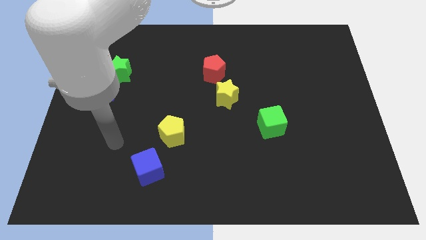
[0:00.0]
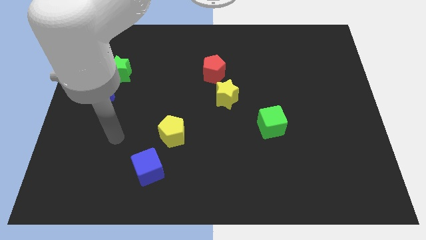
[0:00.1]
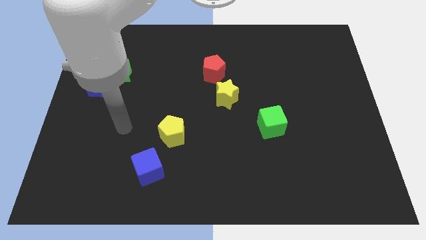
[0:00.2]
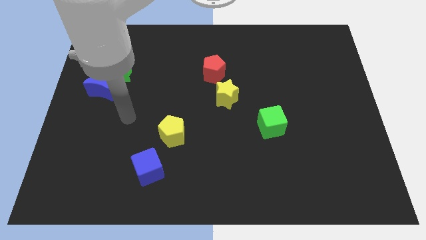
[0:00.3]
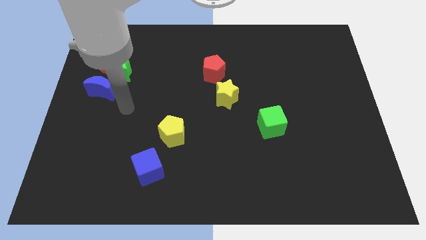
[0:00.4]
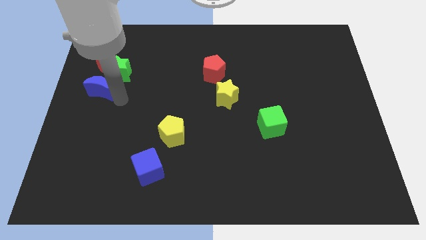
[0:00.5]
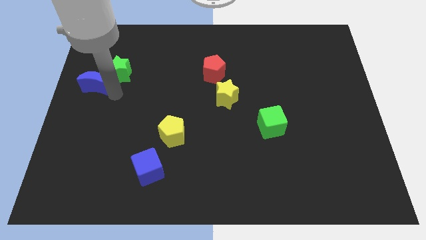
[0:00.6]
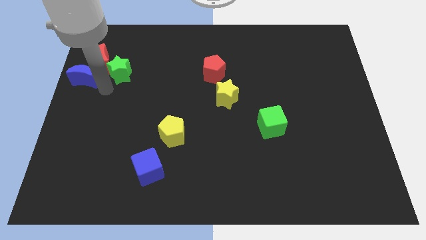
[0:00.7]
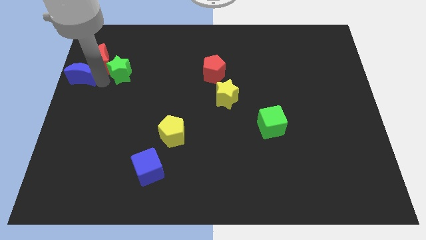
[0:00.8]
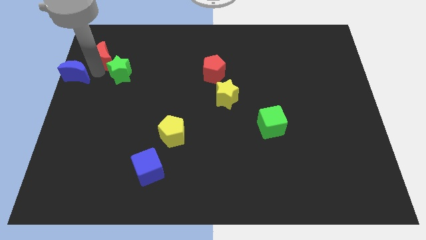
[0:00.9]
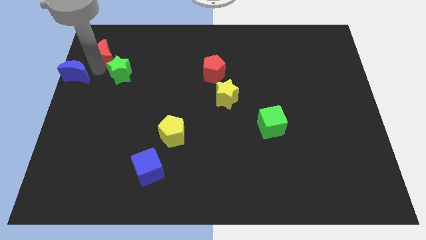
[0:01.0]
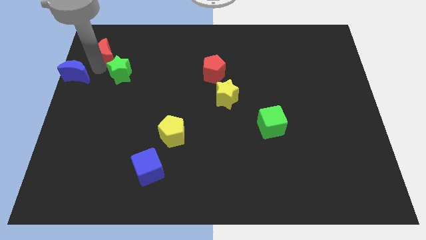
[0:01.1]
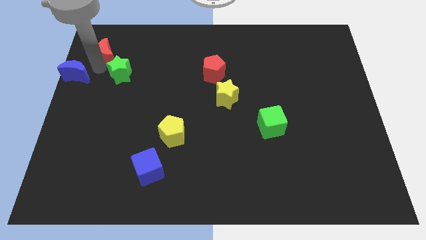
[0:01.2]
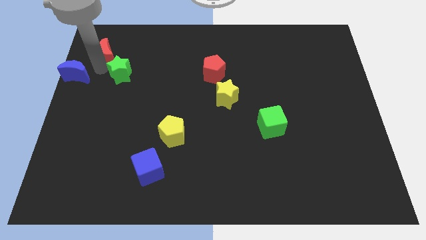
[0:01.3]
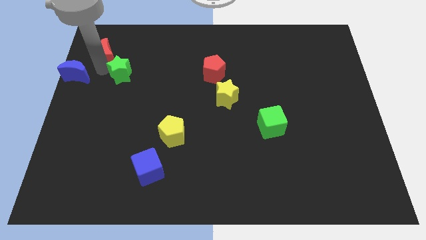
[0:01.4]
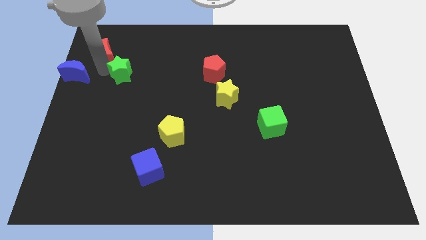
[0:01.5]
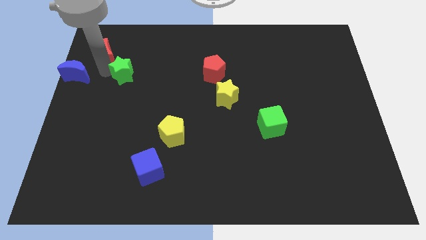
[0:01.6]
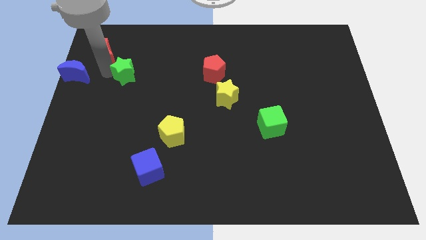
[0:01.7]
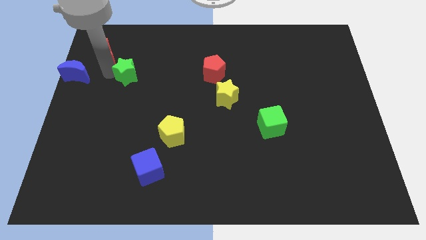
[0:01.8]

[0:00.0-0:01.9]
pull the green star apart from the red moon and blue moon

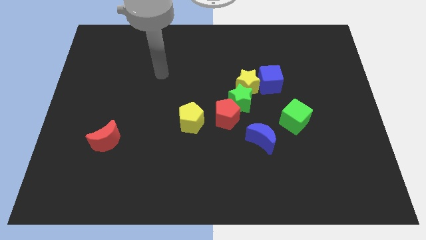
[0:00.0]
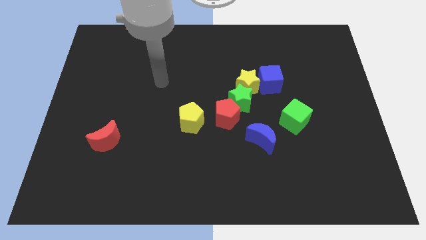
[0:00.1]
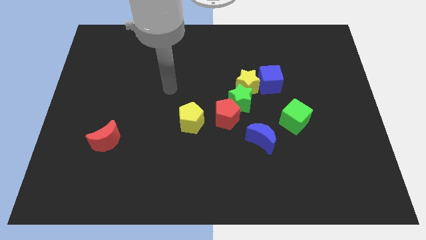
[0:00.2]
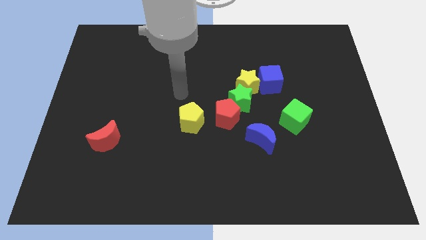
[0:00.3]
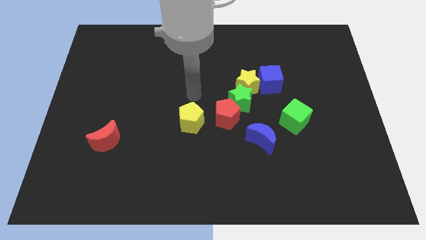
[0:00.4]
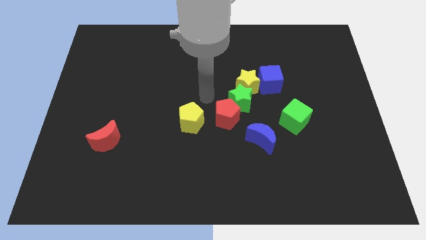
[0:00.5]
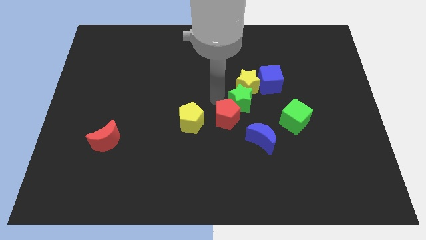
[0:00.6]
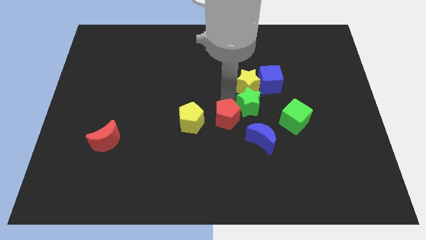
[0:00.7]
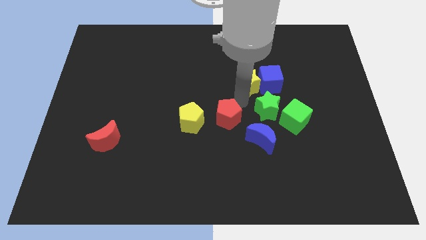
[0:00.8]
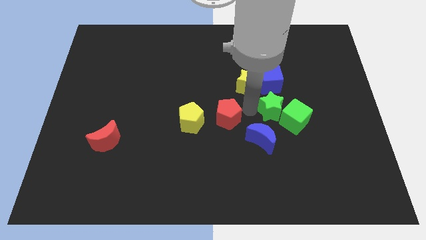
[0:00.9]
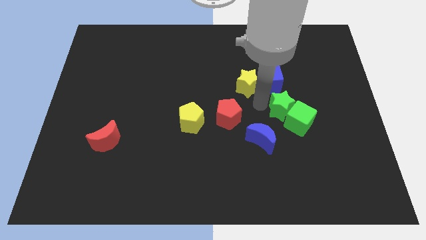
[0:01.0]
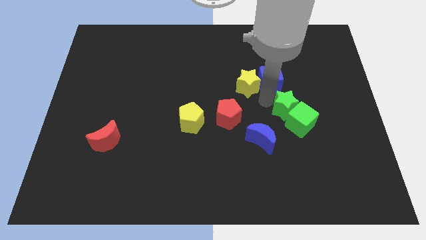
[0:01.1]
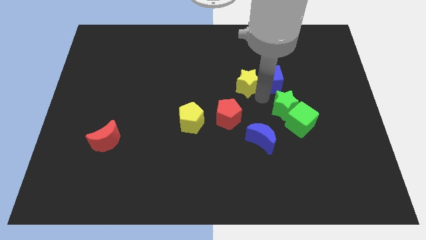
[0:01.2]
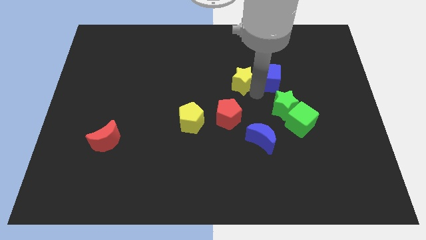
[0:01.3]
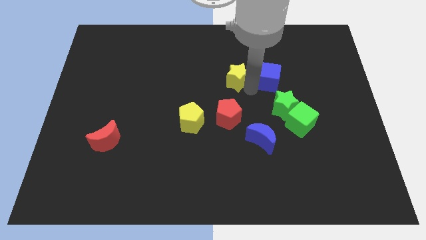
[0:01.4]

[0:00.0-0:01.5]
separate the yellow star from the green star and blue cube

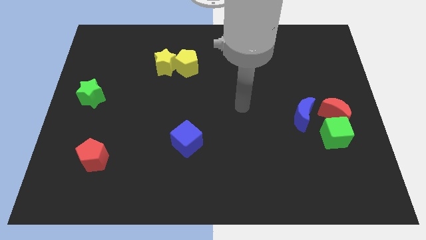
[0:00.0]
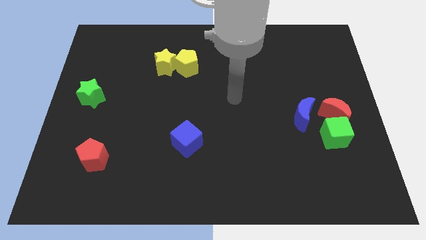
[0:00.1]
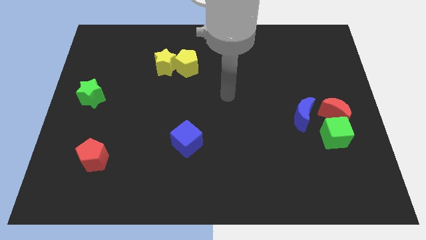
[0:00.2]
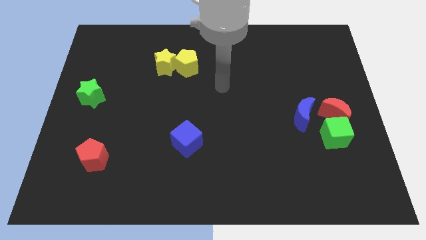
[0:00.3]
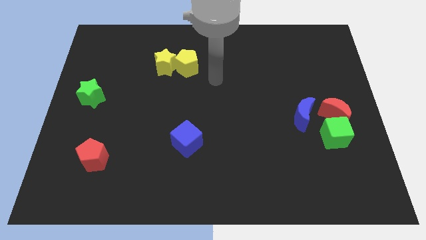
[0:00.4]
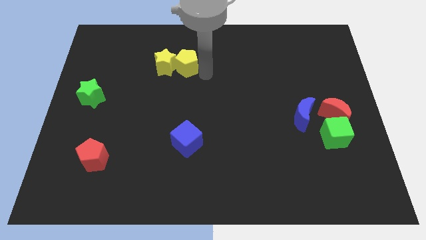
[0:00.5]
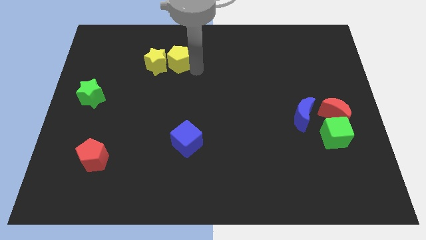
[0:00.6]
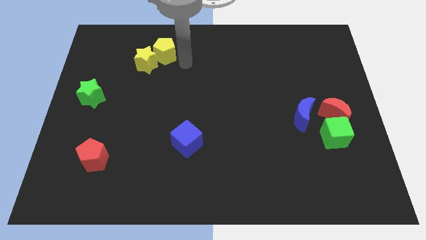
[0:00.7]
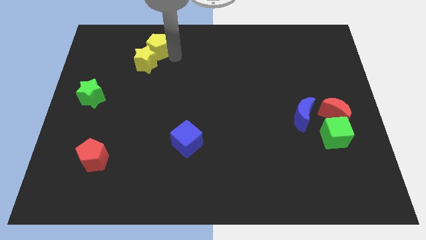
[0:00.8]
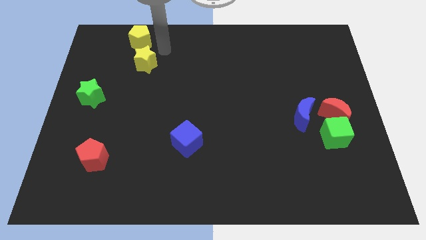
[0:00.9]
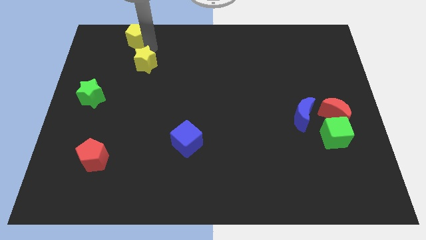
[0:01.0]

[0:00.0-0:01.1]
move the yellow star away from the yellow pentagon

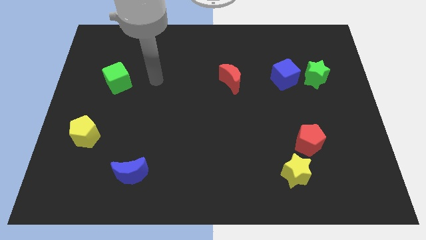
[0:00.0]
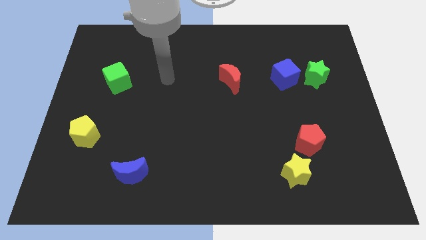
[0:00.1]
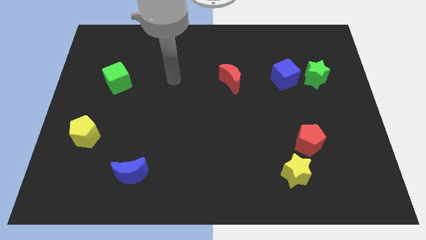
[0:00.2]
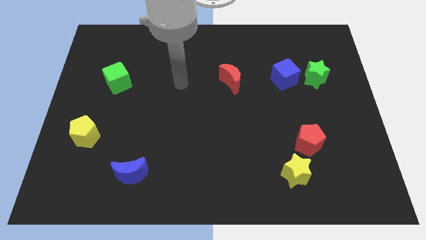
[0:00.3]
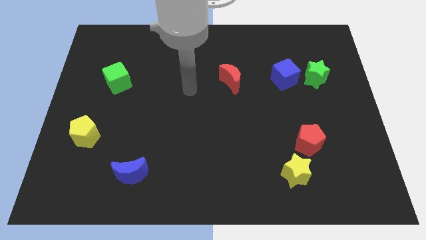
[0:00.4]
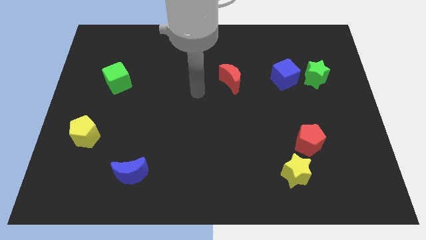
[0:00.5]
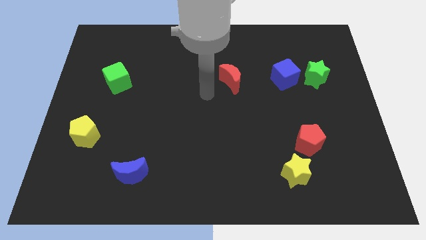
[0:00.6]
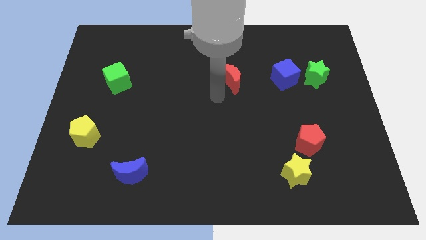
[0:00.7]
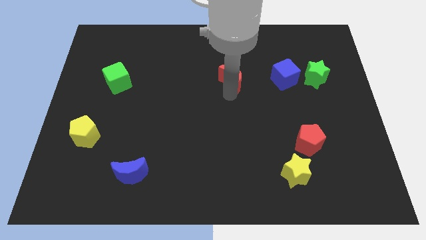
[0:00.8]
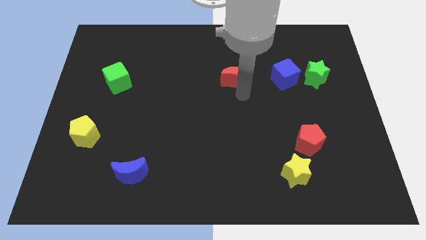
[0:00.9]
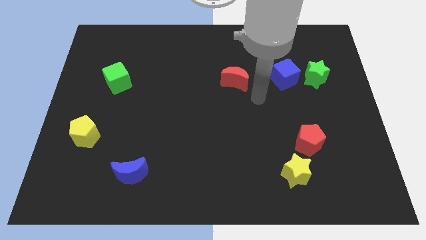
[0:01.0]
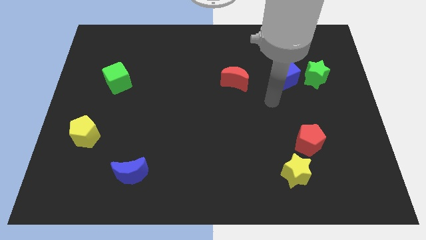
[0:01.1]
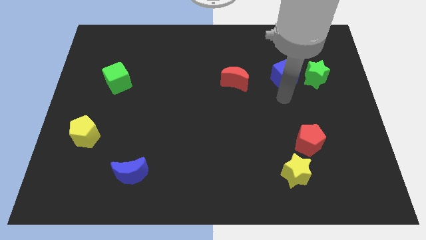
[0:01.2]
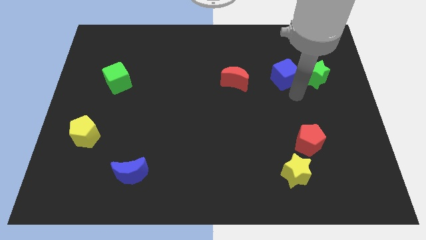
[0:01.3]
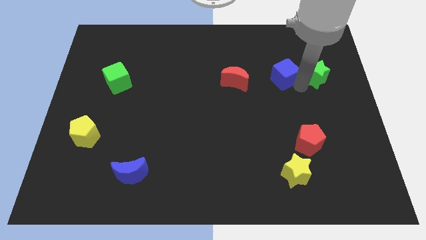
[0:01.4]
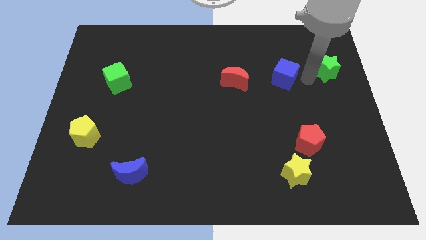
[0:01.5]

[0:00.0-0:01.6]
move the blue cube away from the green star

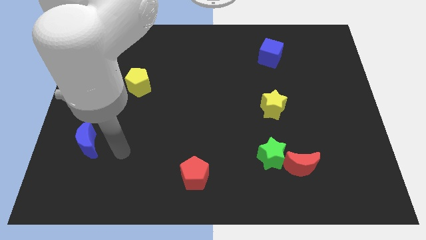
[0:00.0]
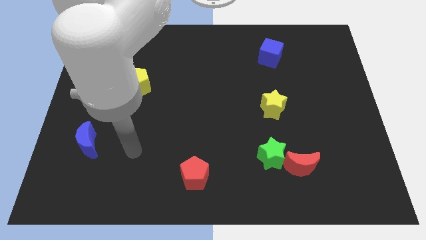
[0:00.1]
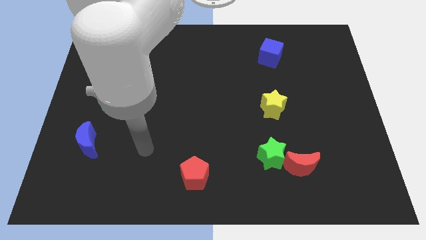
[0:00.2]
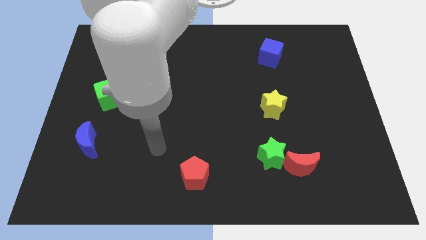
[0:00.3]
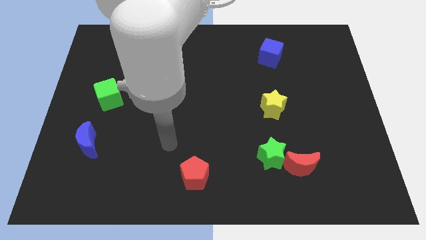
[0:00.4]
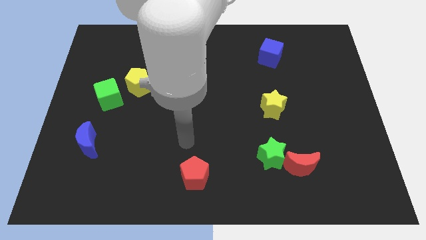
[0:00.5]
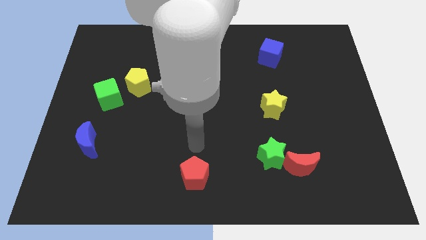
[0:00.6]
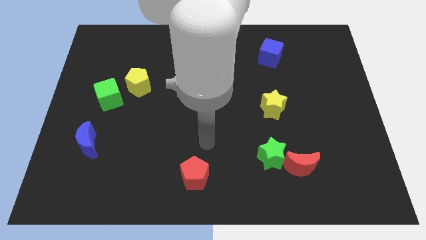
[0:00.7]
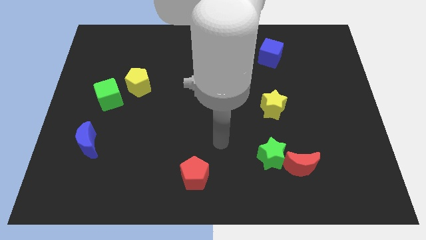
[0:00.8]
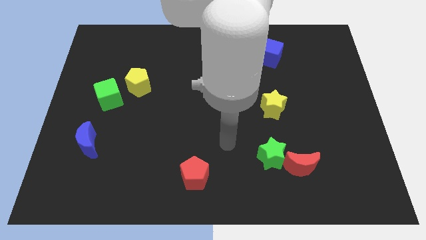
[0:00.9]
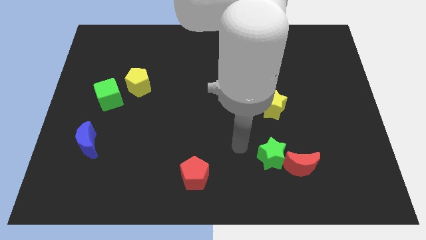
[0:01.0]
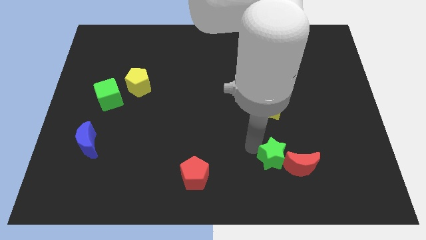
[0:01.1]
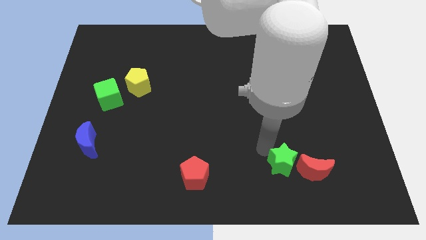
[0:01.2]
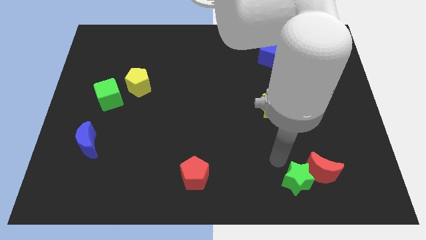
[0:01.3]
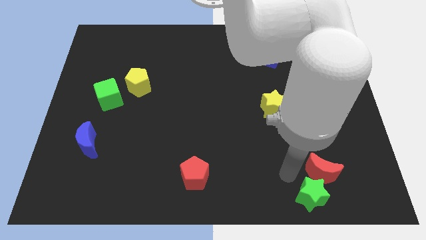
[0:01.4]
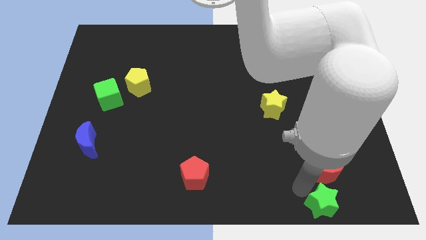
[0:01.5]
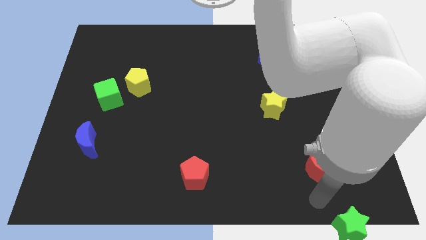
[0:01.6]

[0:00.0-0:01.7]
pull the red moon apart from the green star

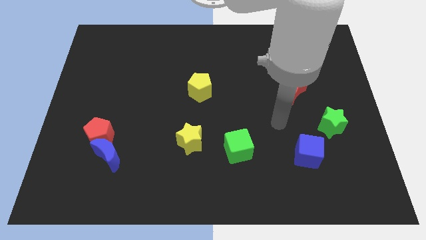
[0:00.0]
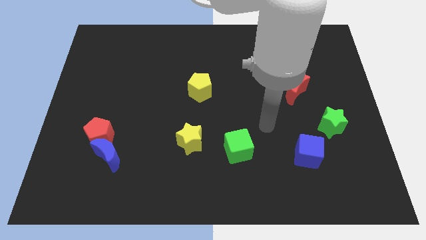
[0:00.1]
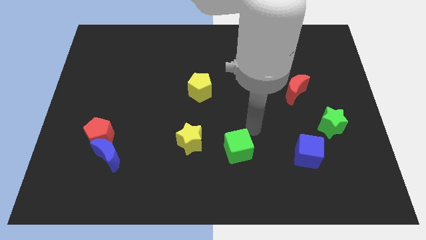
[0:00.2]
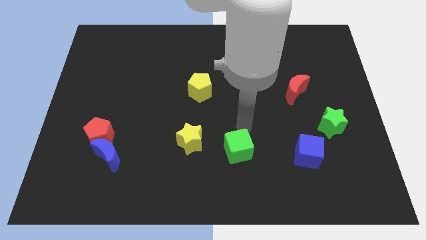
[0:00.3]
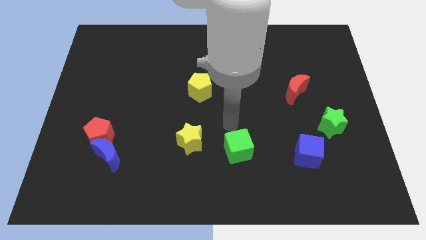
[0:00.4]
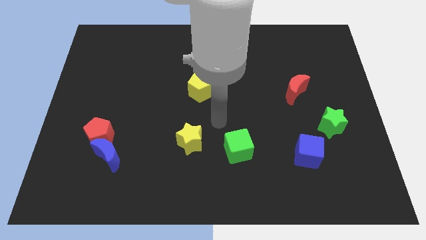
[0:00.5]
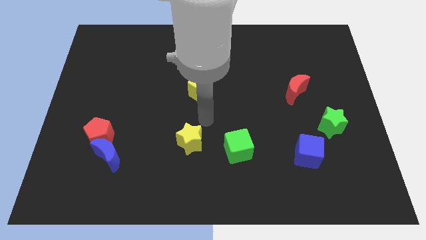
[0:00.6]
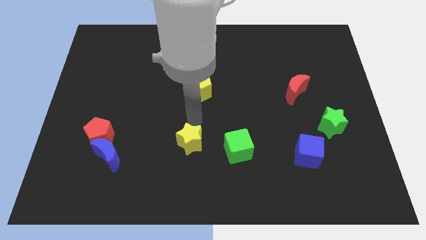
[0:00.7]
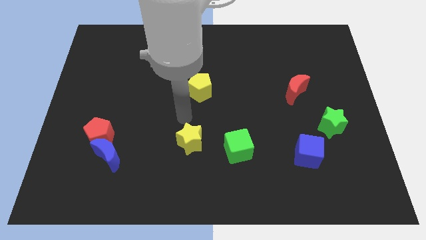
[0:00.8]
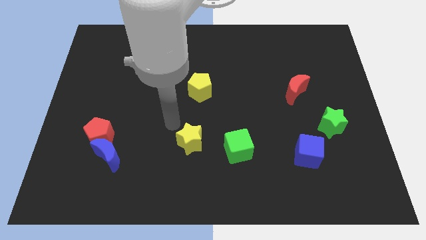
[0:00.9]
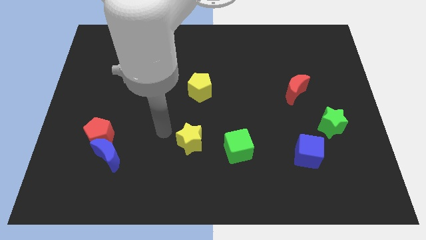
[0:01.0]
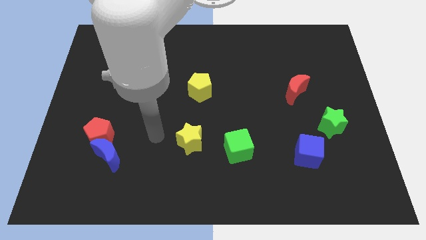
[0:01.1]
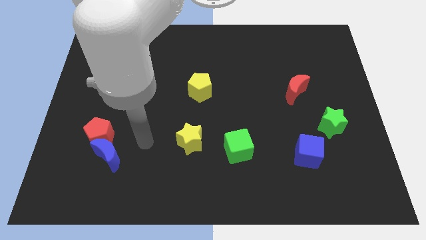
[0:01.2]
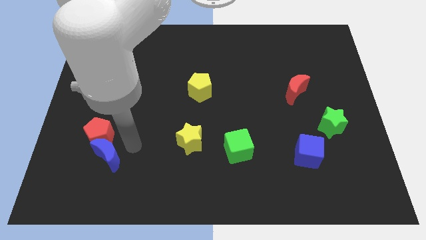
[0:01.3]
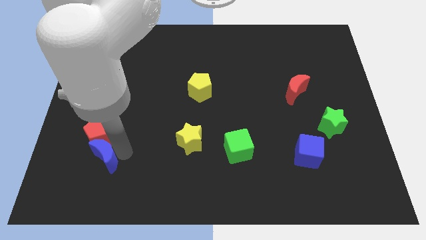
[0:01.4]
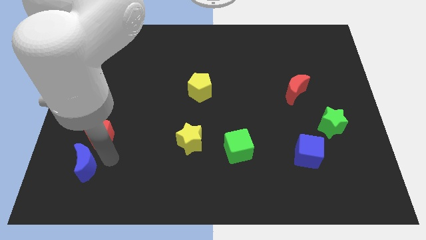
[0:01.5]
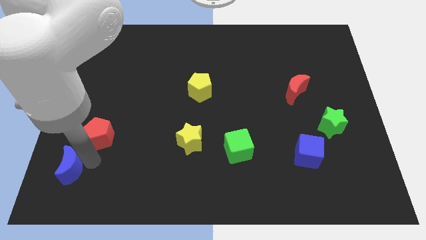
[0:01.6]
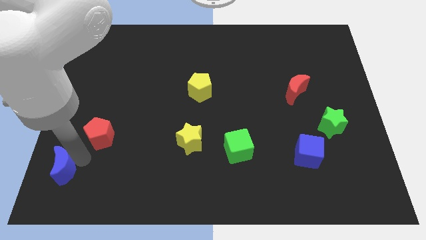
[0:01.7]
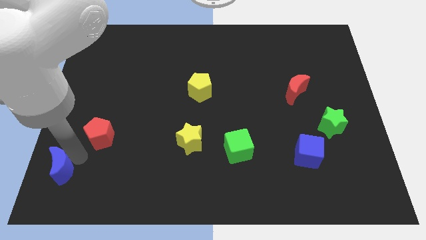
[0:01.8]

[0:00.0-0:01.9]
separate the red pentagon from the blue moon
